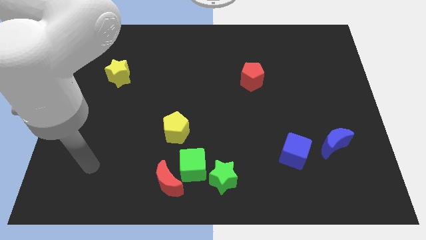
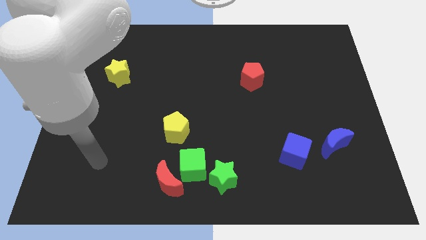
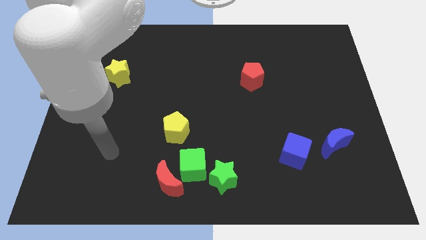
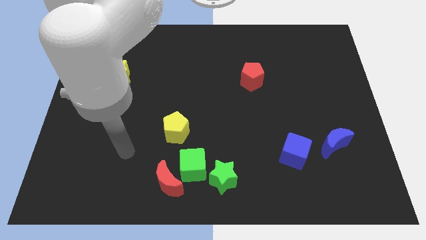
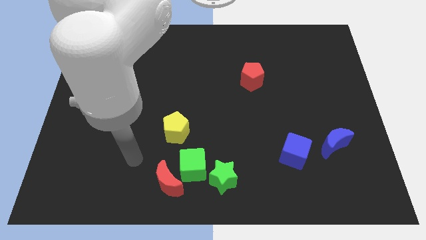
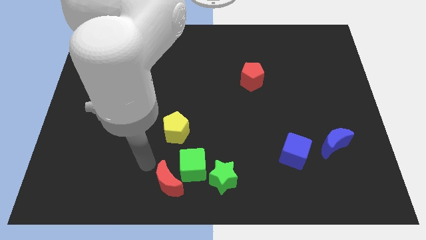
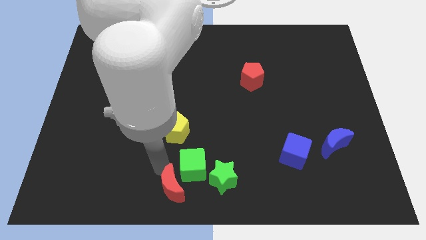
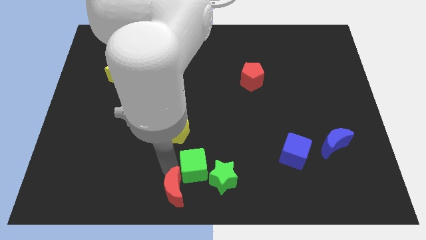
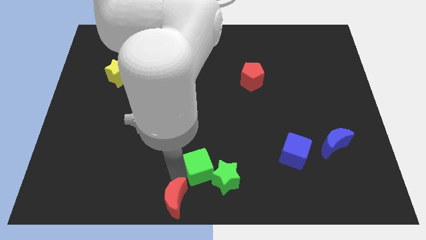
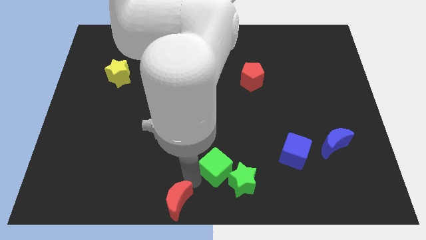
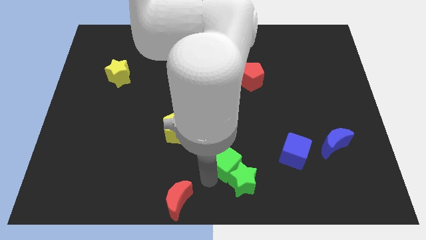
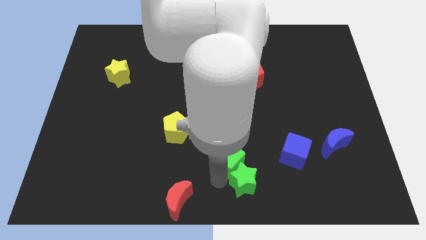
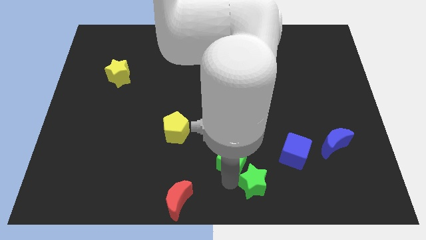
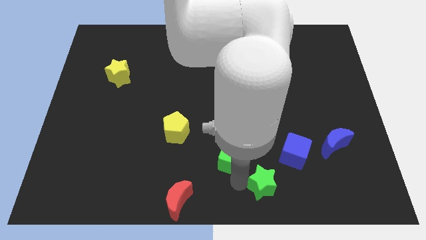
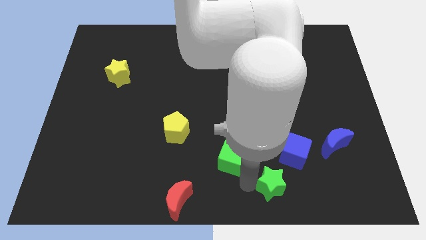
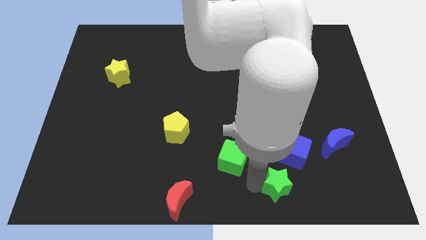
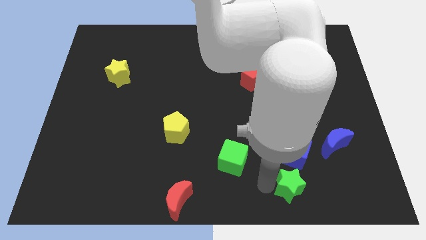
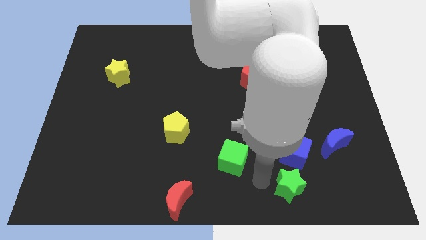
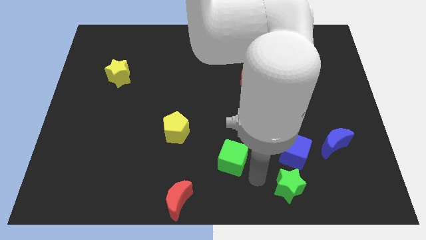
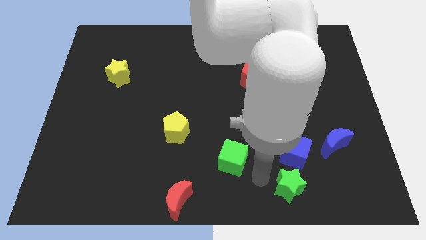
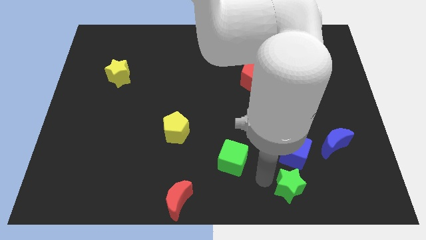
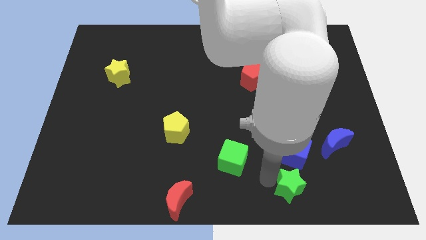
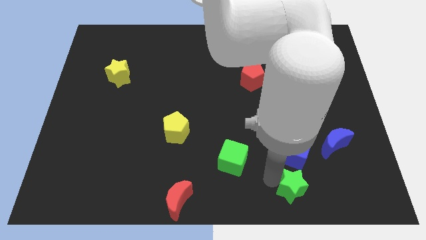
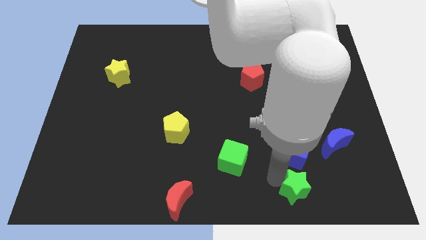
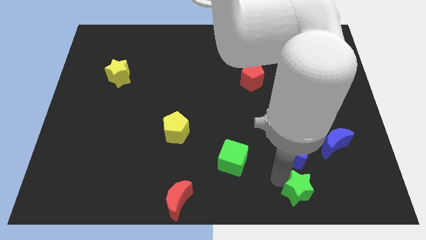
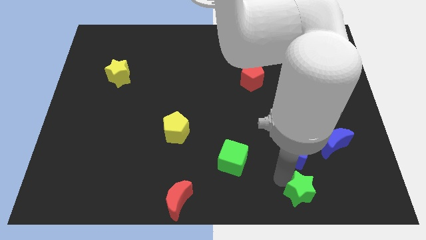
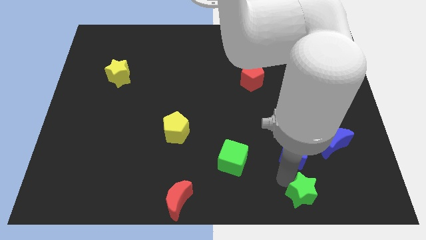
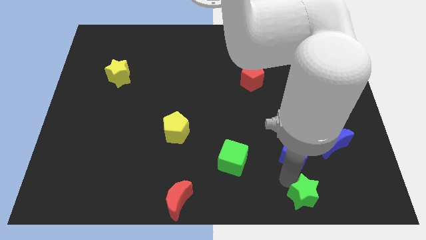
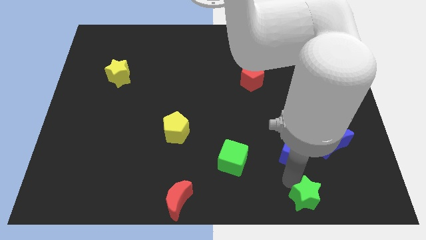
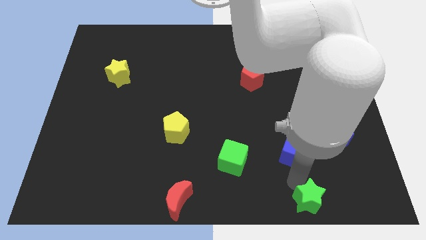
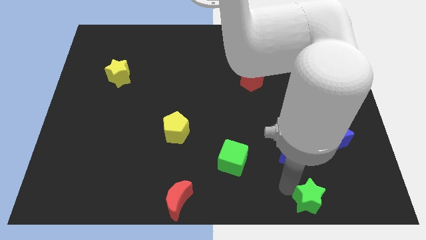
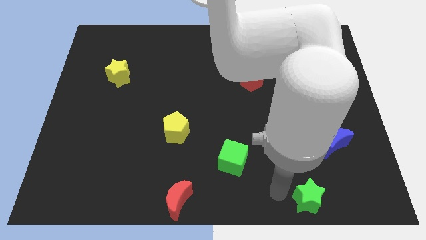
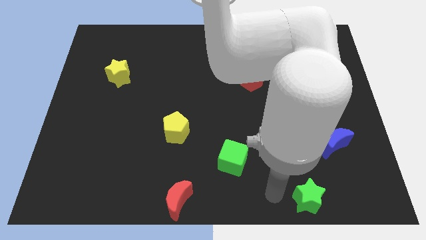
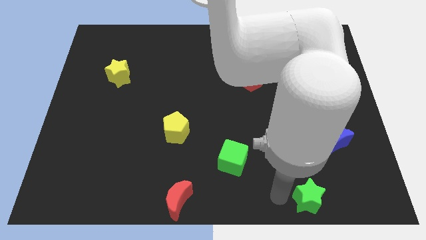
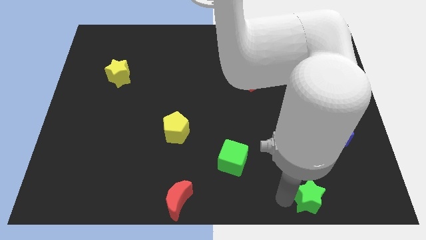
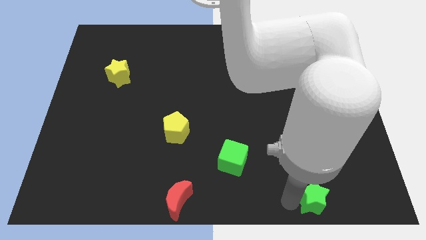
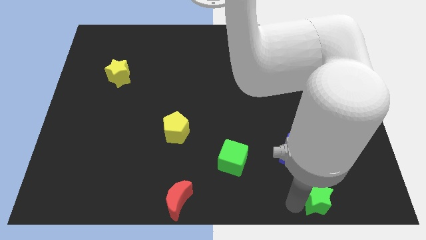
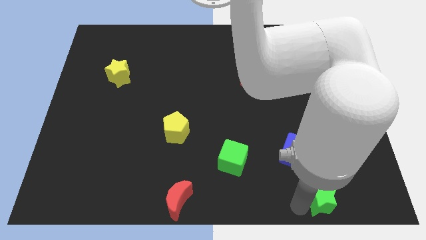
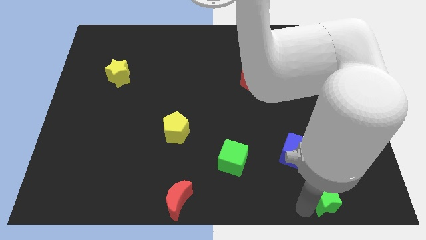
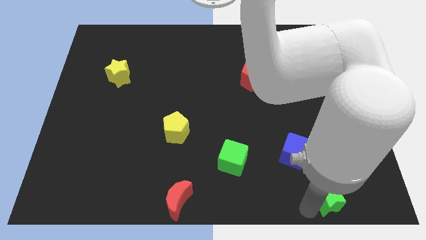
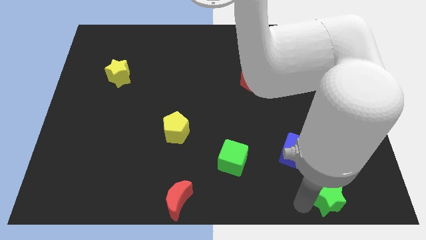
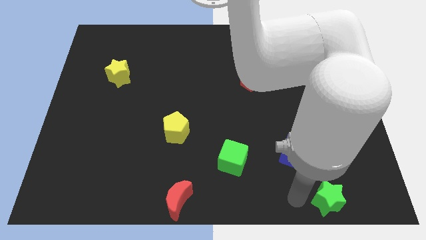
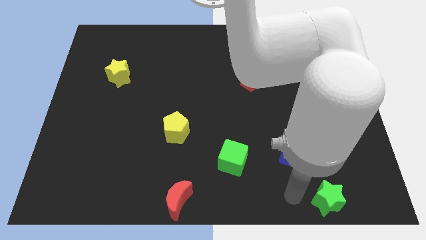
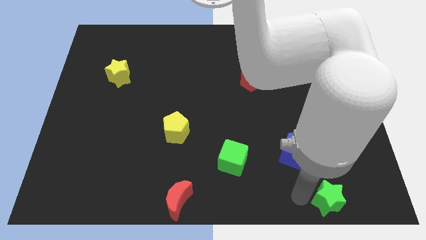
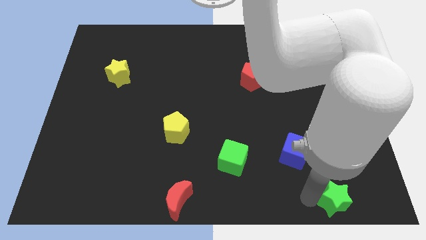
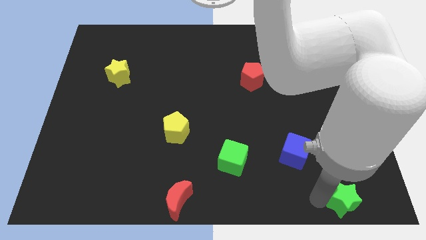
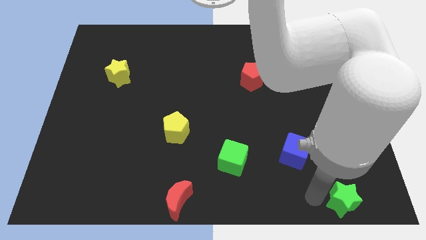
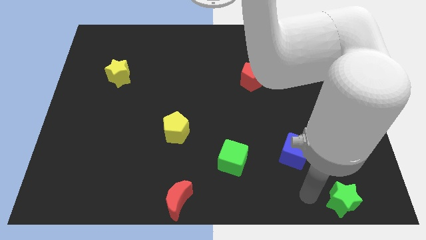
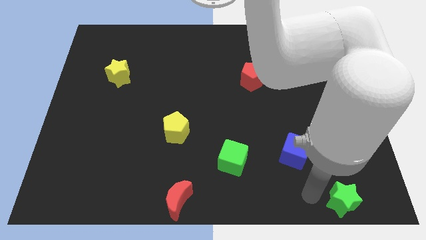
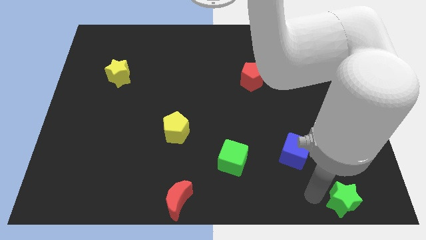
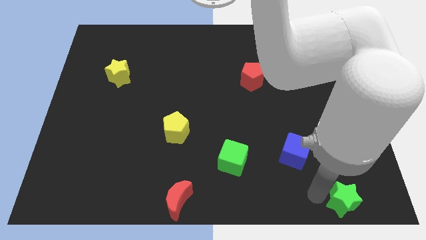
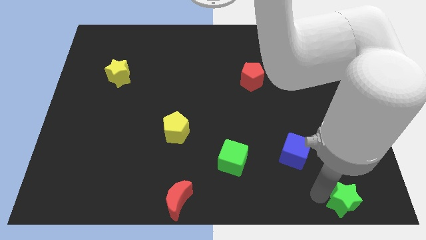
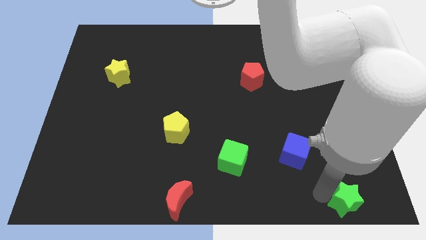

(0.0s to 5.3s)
slide the green star to the bottom right of the board
